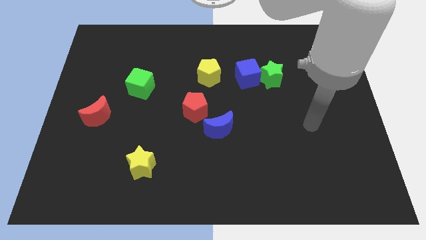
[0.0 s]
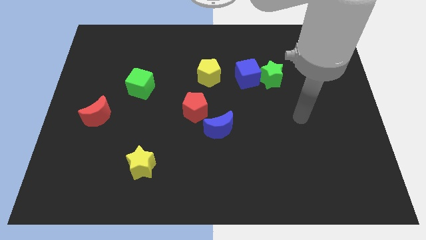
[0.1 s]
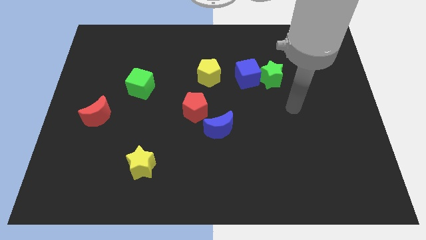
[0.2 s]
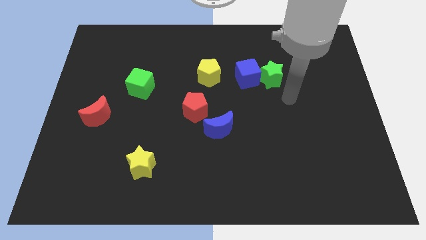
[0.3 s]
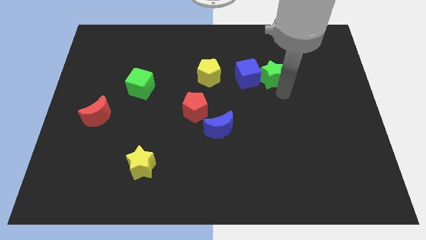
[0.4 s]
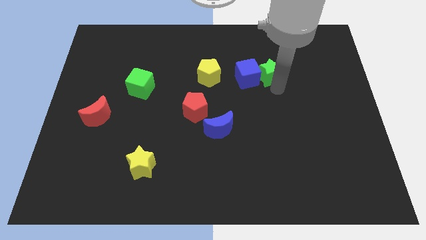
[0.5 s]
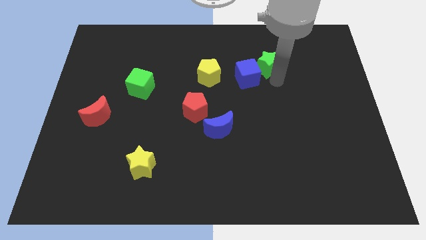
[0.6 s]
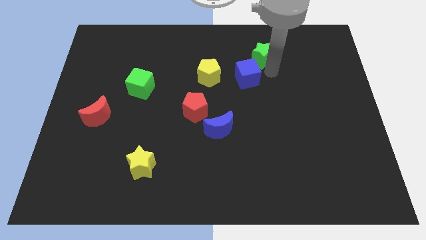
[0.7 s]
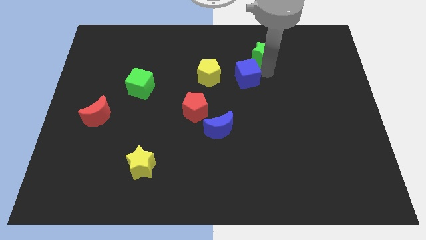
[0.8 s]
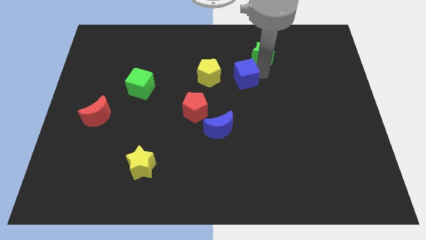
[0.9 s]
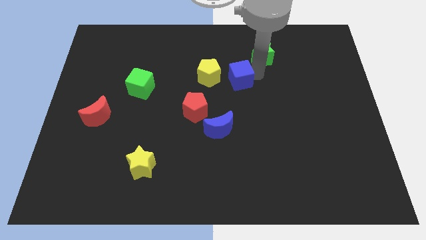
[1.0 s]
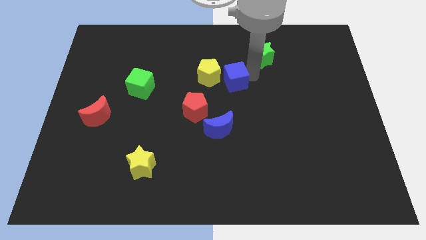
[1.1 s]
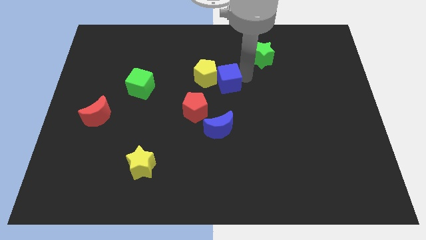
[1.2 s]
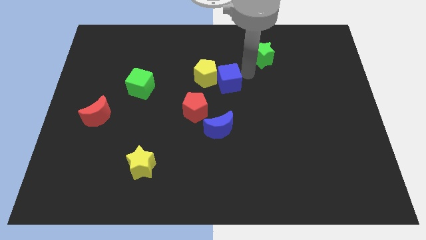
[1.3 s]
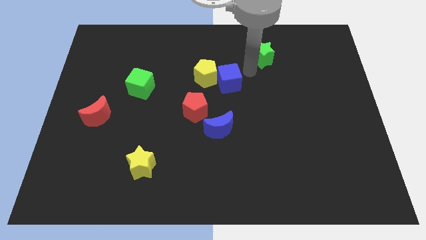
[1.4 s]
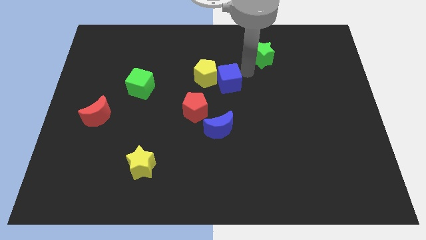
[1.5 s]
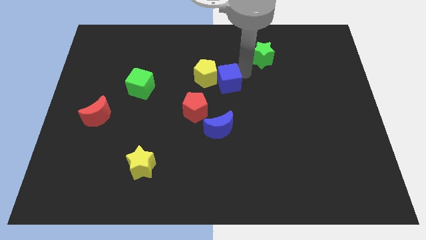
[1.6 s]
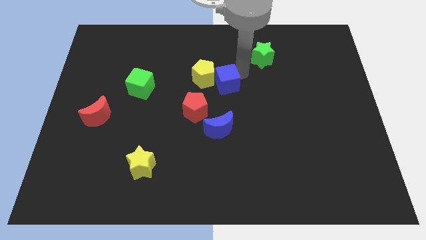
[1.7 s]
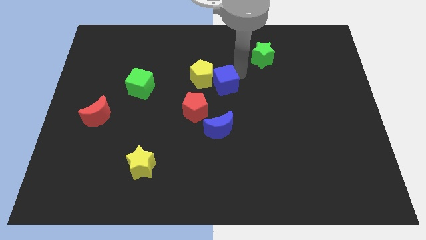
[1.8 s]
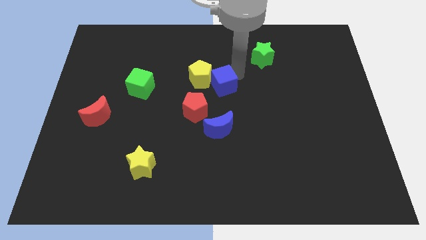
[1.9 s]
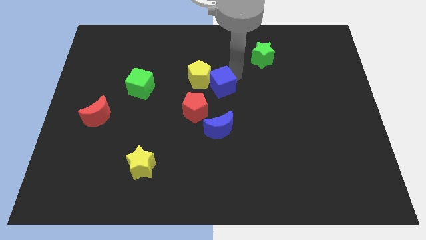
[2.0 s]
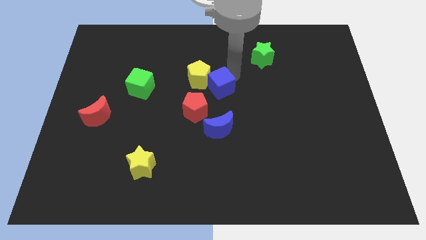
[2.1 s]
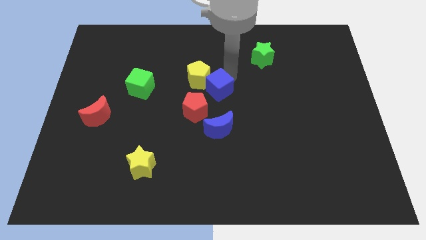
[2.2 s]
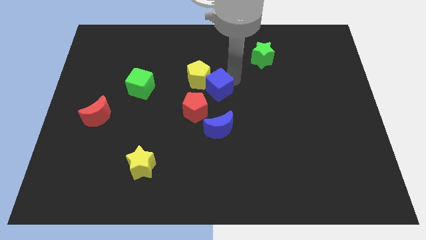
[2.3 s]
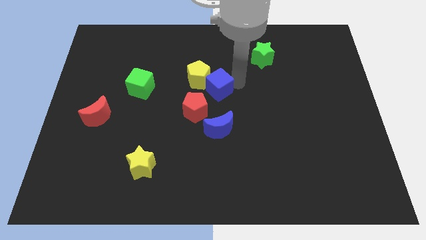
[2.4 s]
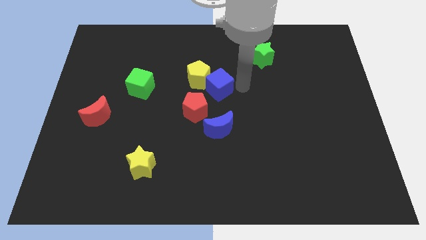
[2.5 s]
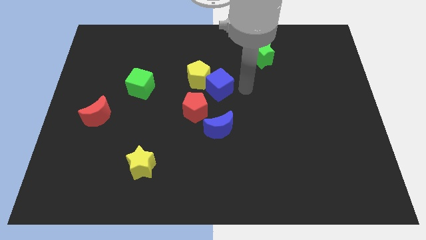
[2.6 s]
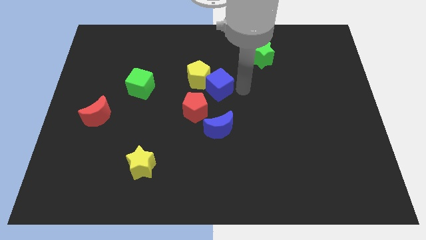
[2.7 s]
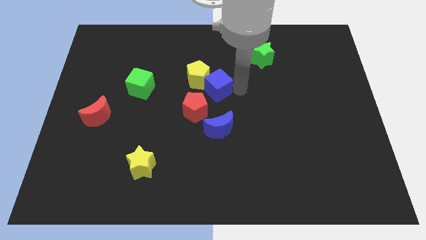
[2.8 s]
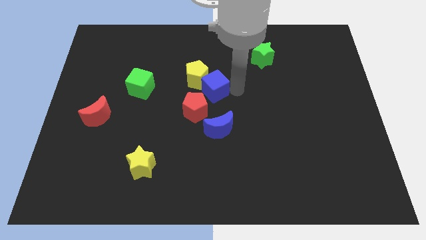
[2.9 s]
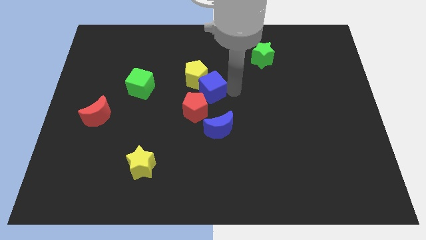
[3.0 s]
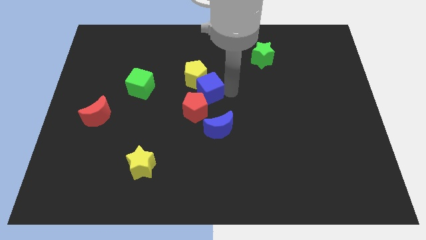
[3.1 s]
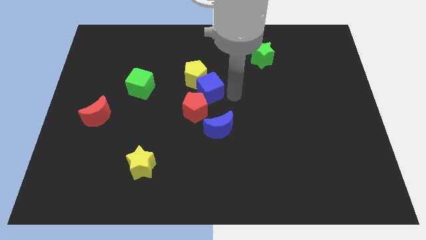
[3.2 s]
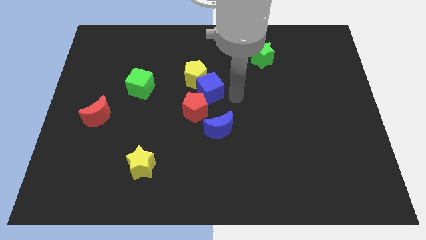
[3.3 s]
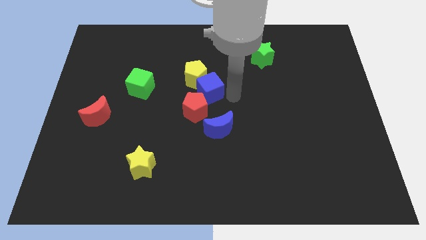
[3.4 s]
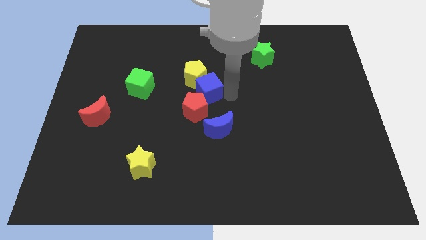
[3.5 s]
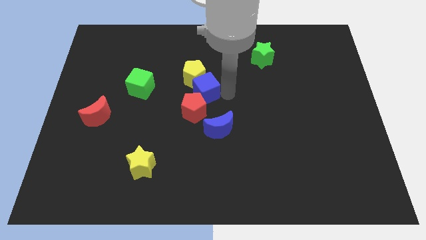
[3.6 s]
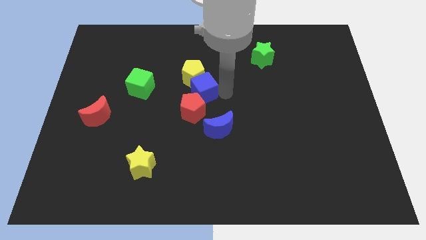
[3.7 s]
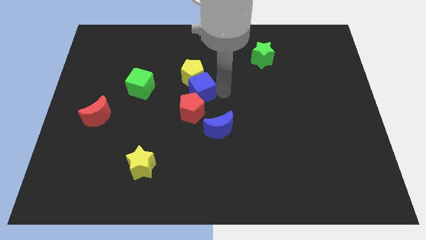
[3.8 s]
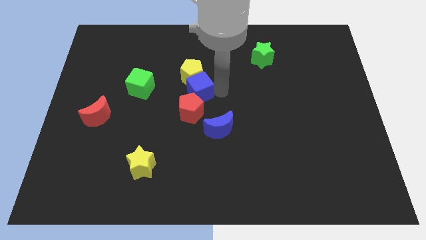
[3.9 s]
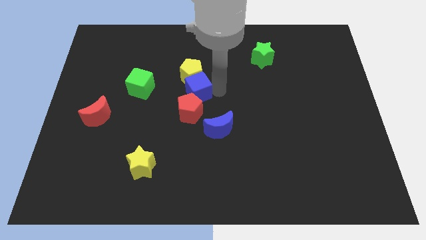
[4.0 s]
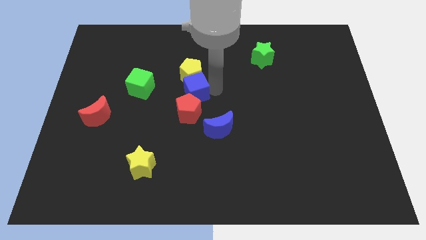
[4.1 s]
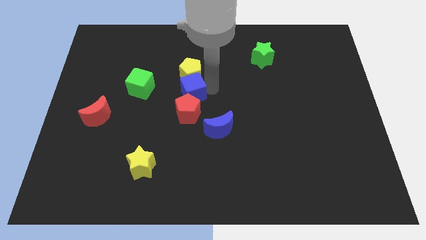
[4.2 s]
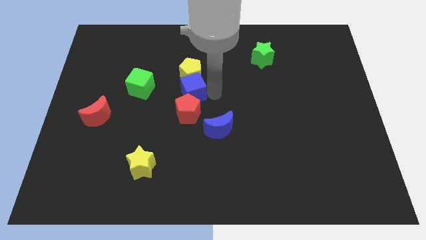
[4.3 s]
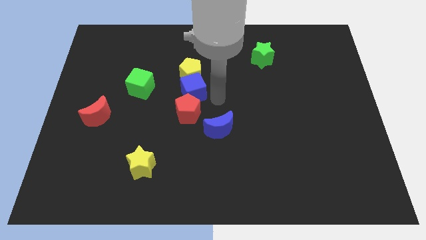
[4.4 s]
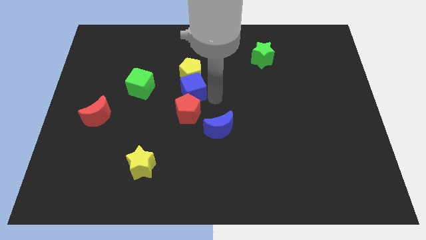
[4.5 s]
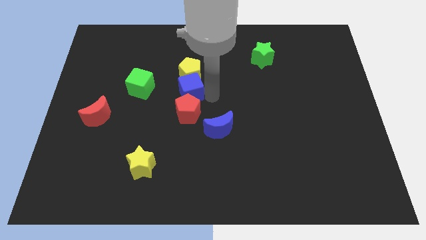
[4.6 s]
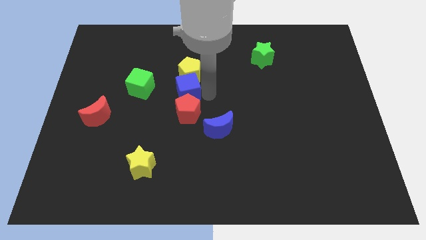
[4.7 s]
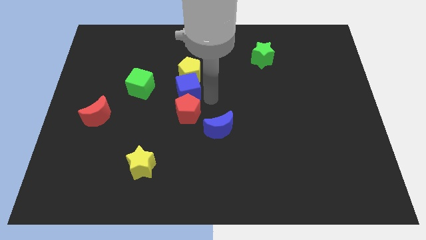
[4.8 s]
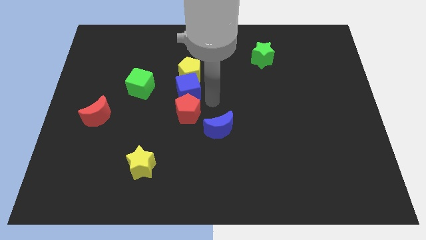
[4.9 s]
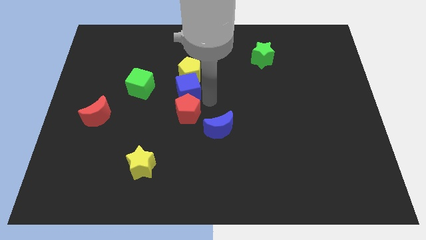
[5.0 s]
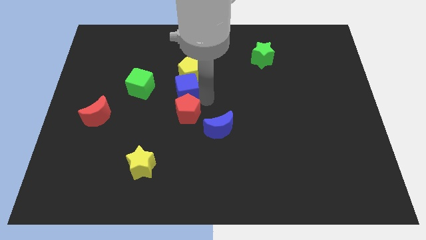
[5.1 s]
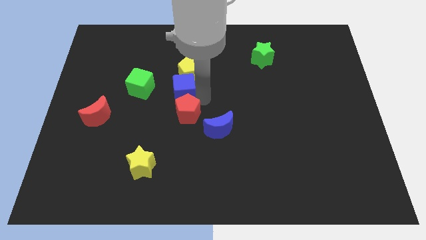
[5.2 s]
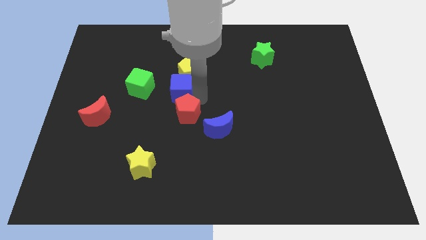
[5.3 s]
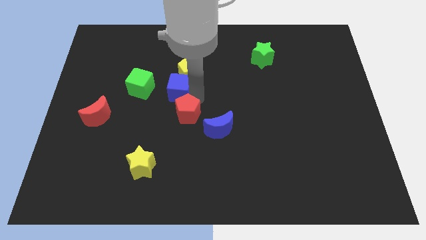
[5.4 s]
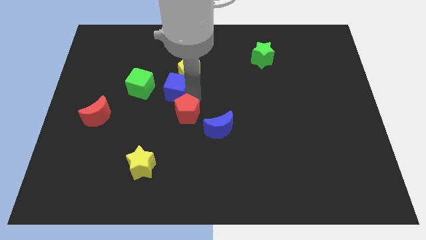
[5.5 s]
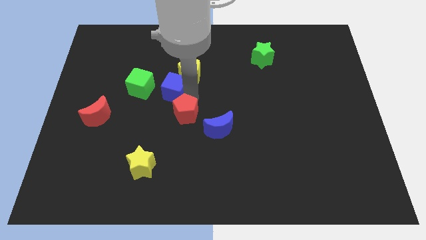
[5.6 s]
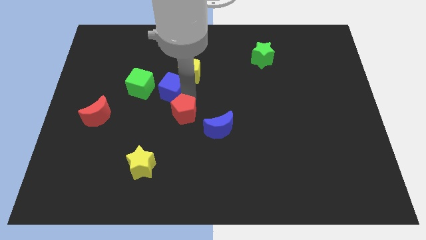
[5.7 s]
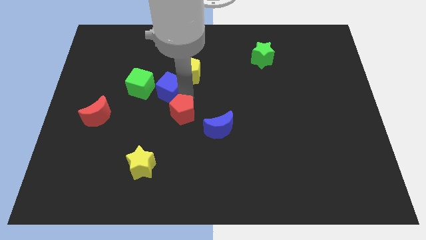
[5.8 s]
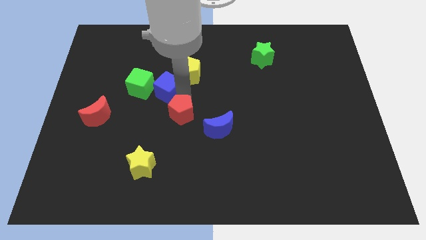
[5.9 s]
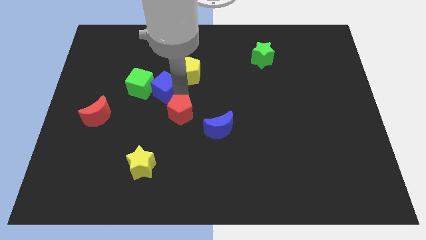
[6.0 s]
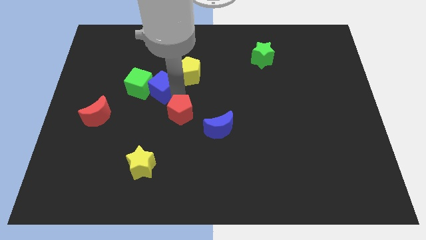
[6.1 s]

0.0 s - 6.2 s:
push the blue cube left

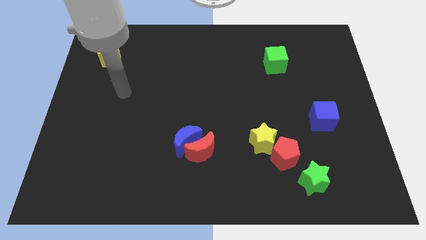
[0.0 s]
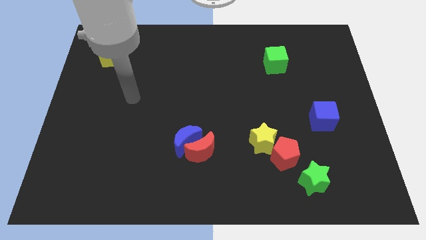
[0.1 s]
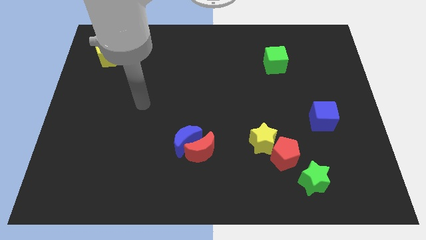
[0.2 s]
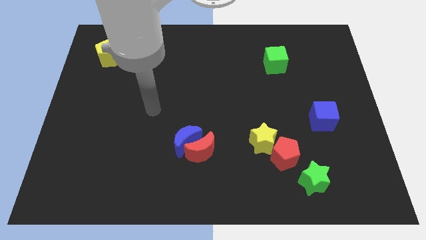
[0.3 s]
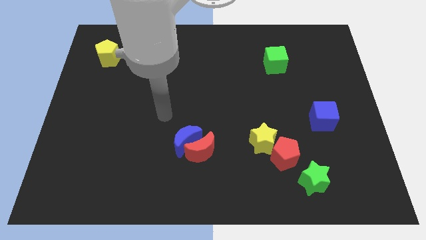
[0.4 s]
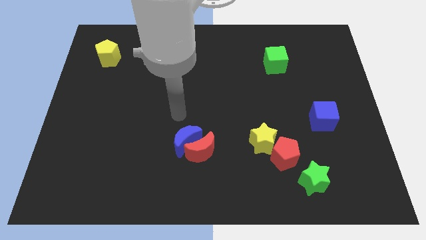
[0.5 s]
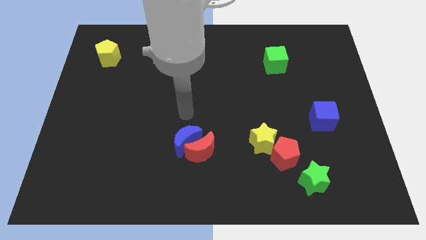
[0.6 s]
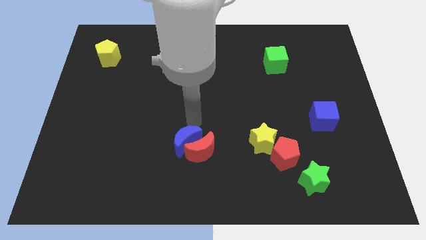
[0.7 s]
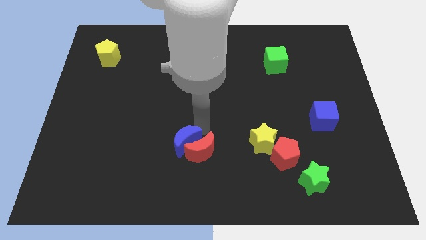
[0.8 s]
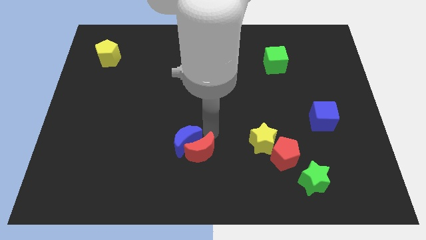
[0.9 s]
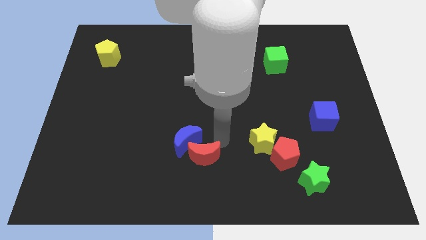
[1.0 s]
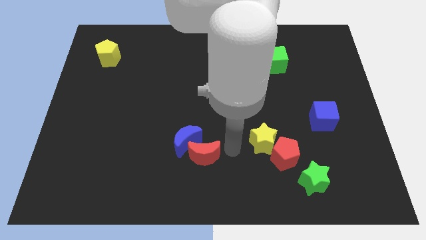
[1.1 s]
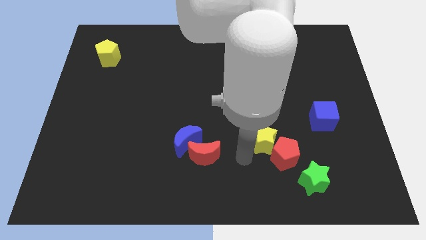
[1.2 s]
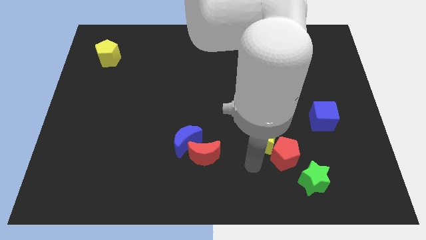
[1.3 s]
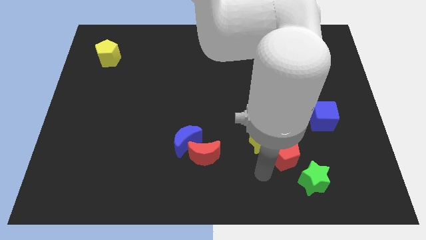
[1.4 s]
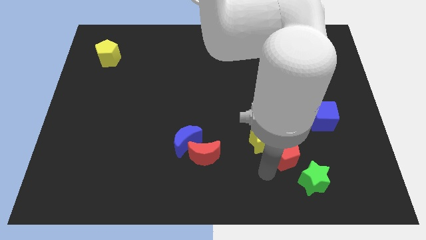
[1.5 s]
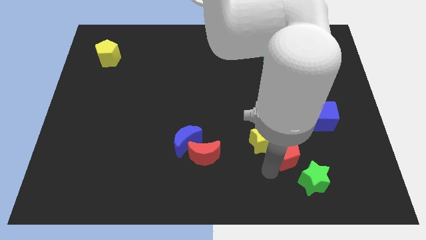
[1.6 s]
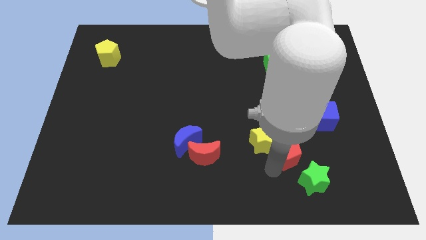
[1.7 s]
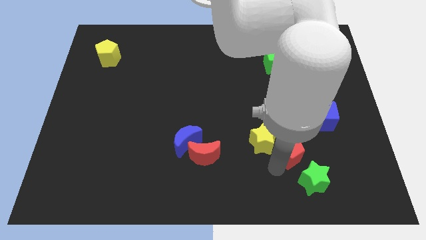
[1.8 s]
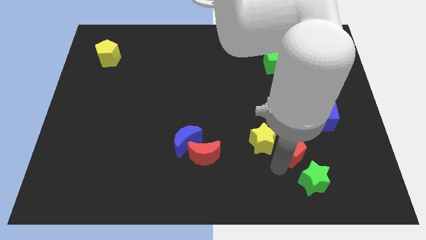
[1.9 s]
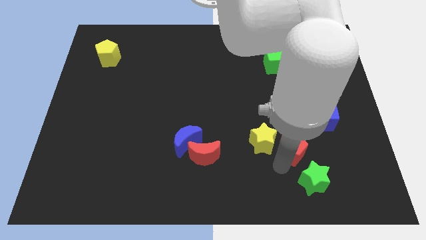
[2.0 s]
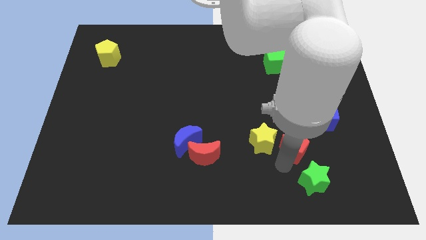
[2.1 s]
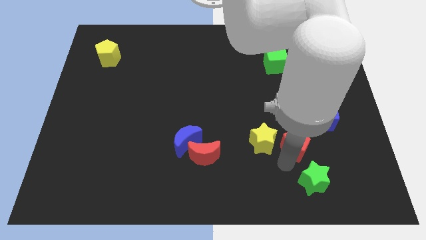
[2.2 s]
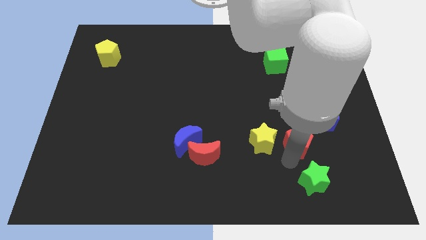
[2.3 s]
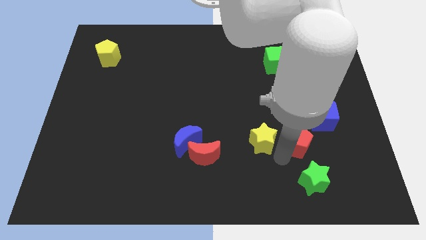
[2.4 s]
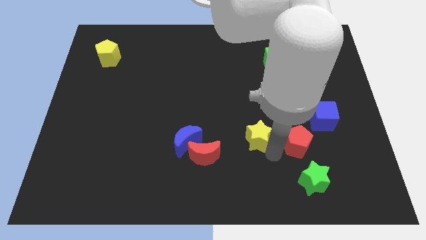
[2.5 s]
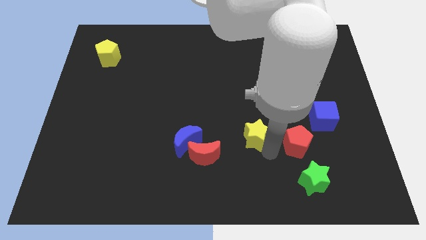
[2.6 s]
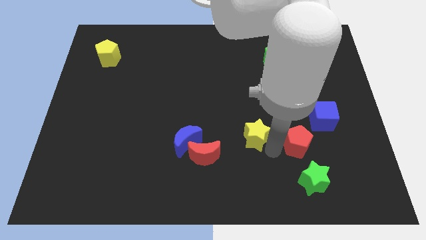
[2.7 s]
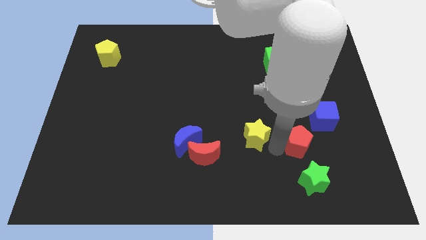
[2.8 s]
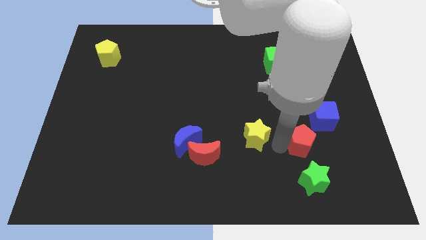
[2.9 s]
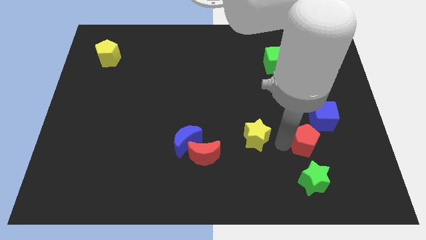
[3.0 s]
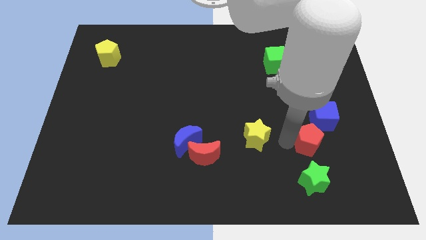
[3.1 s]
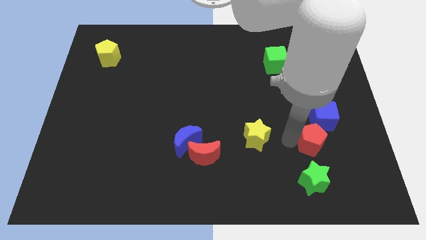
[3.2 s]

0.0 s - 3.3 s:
move the red pentagon up and then to the right a bit
